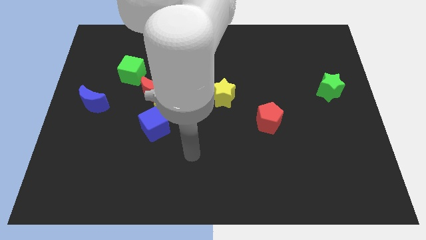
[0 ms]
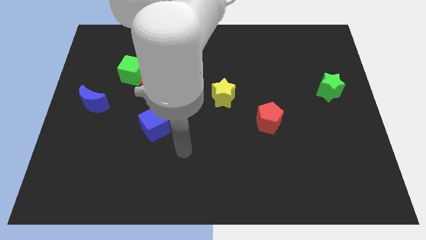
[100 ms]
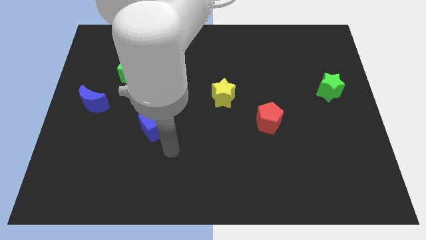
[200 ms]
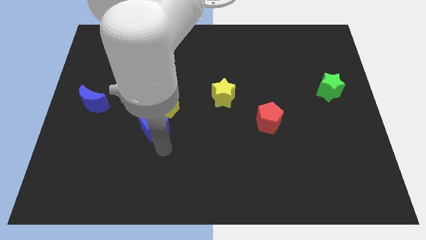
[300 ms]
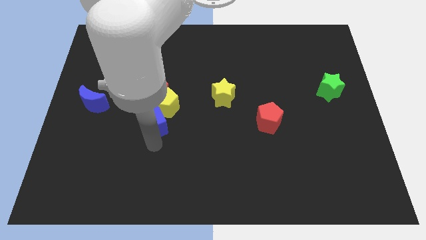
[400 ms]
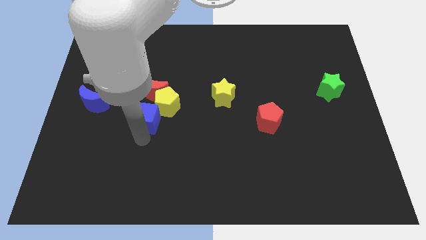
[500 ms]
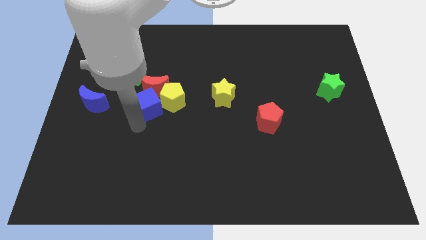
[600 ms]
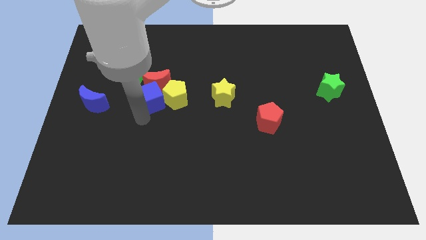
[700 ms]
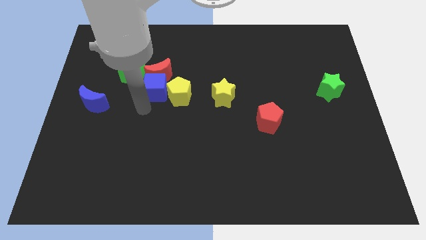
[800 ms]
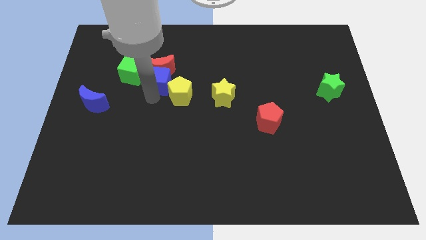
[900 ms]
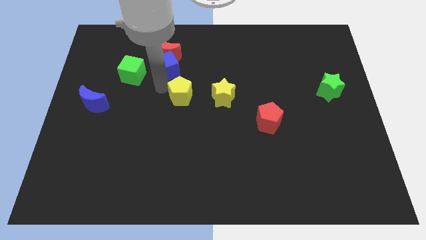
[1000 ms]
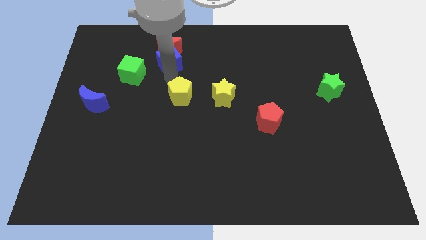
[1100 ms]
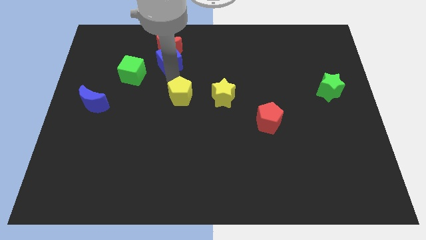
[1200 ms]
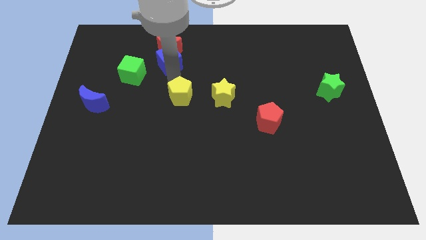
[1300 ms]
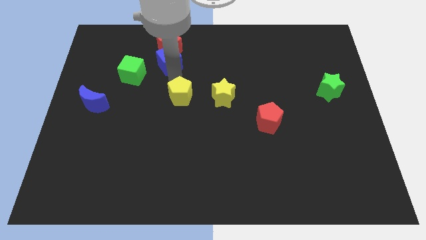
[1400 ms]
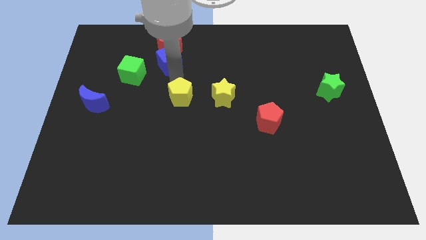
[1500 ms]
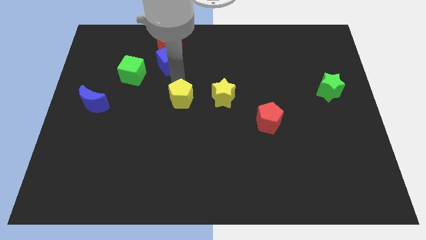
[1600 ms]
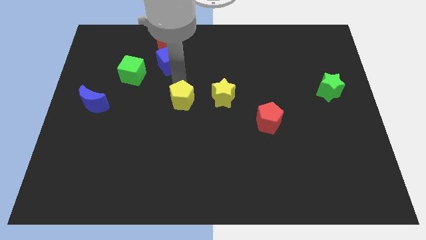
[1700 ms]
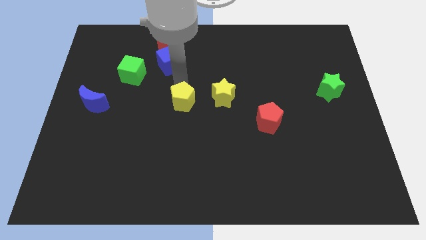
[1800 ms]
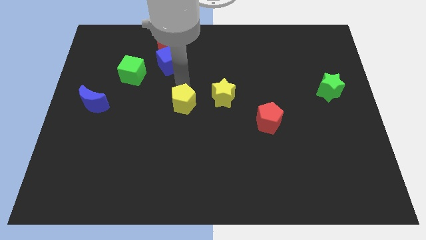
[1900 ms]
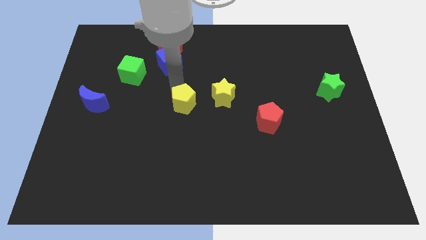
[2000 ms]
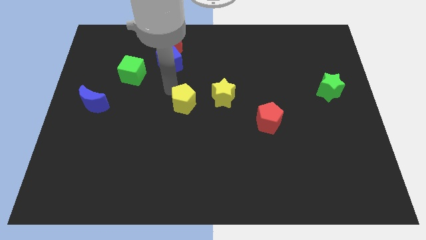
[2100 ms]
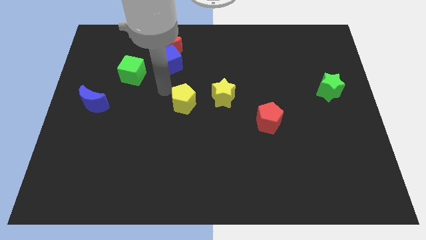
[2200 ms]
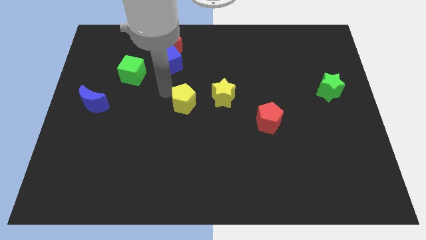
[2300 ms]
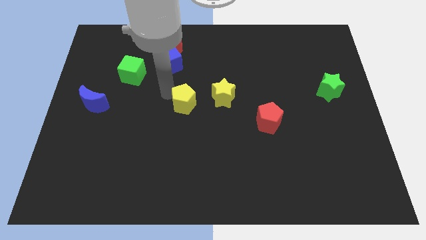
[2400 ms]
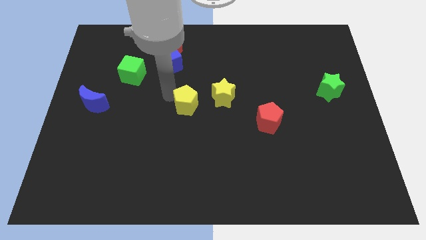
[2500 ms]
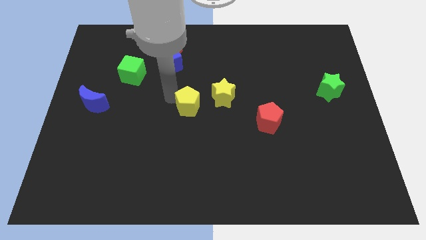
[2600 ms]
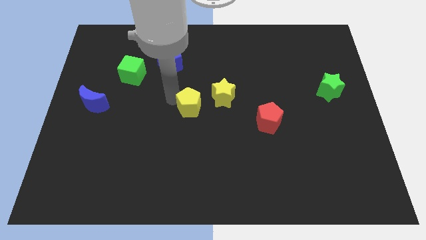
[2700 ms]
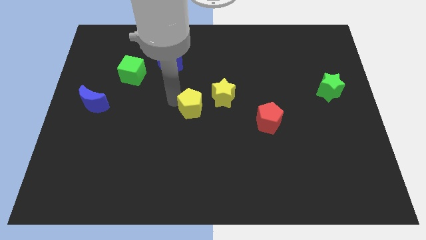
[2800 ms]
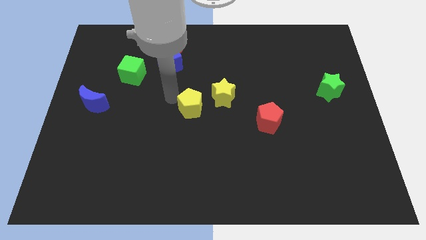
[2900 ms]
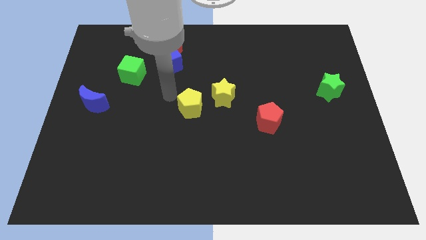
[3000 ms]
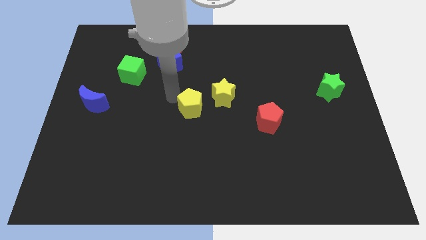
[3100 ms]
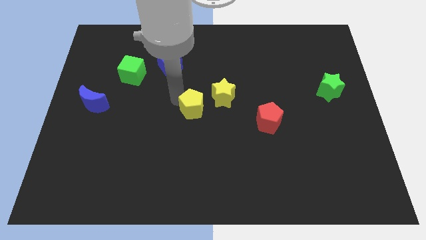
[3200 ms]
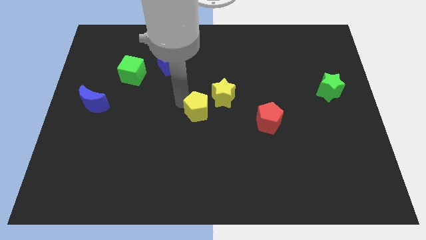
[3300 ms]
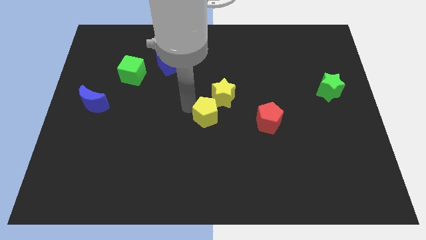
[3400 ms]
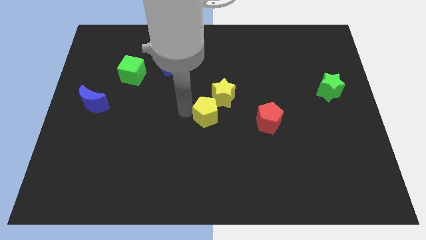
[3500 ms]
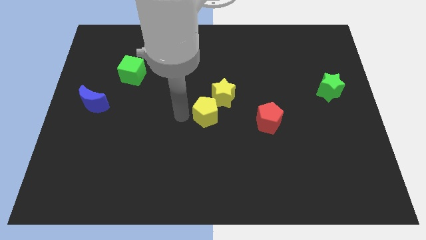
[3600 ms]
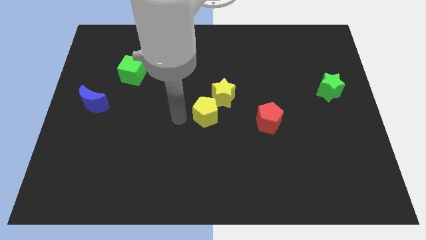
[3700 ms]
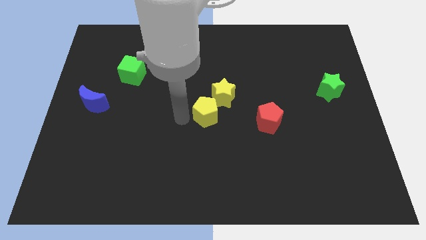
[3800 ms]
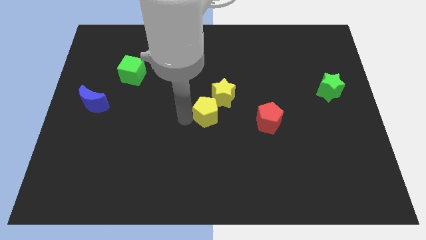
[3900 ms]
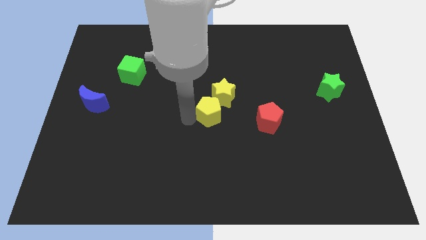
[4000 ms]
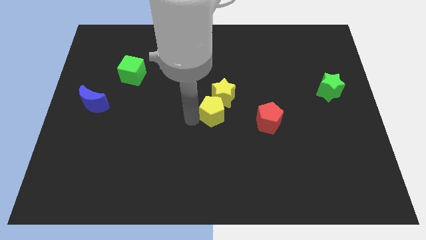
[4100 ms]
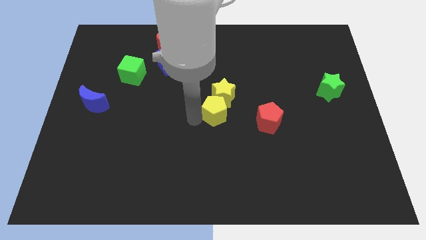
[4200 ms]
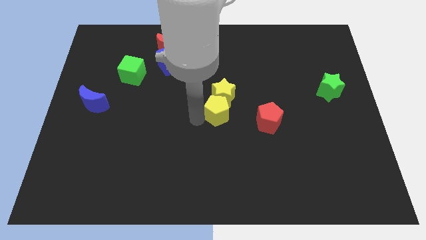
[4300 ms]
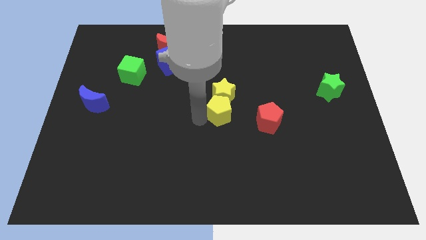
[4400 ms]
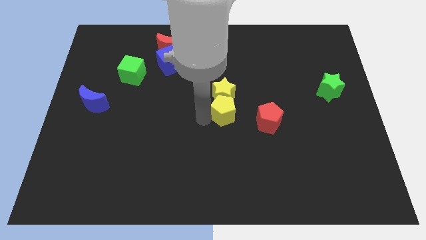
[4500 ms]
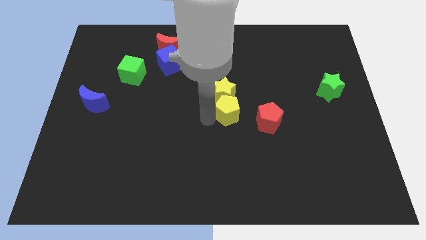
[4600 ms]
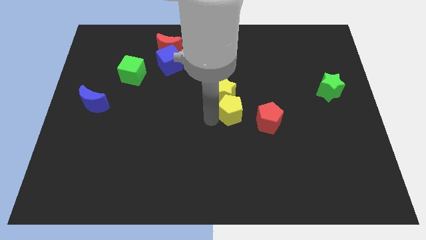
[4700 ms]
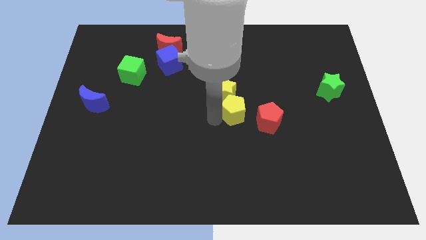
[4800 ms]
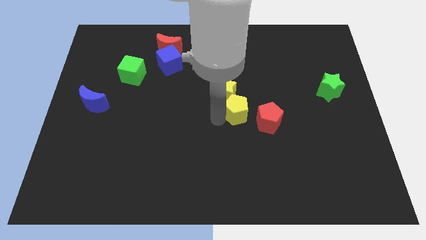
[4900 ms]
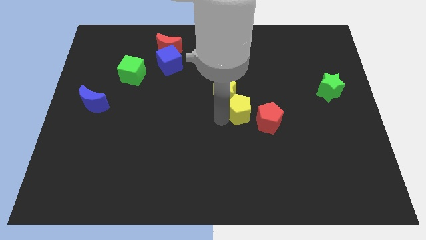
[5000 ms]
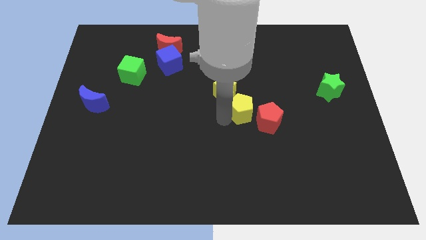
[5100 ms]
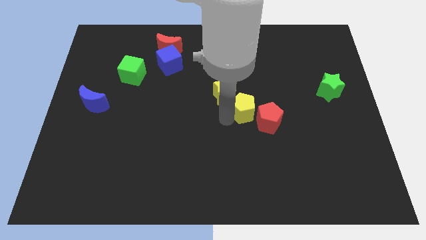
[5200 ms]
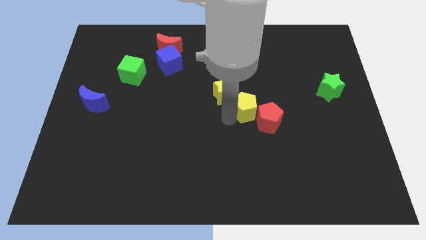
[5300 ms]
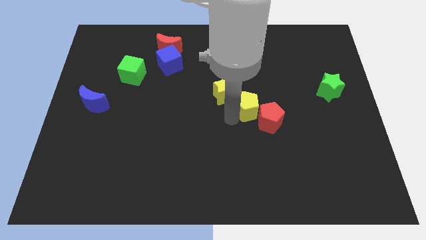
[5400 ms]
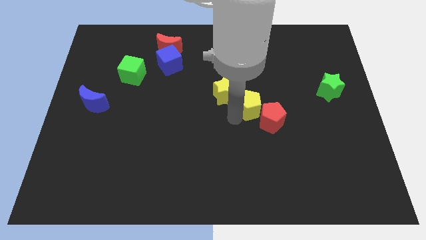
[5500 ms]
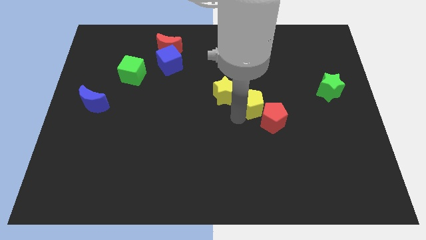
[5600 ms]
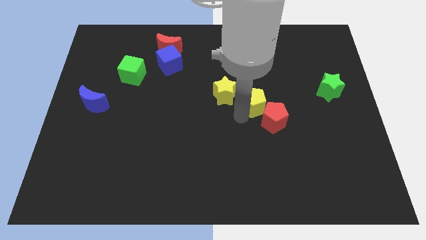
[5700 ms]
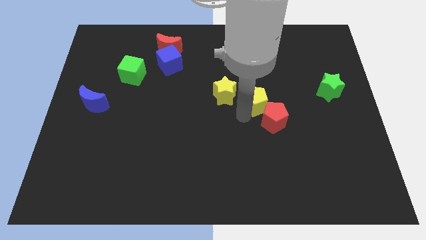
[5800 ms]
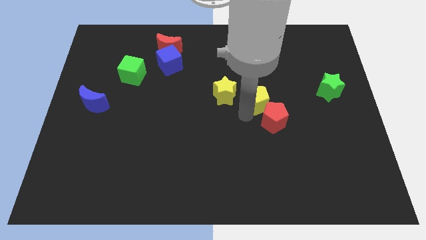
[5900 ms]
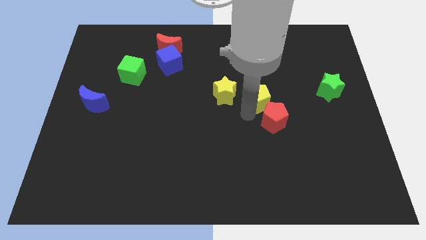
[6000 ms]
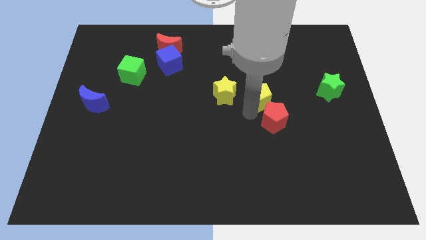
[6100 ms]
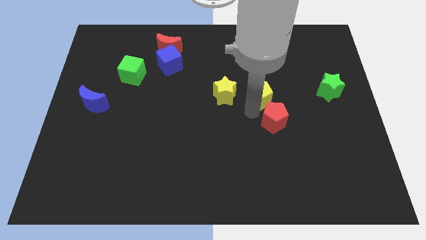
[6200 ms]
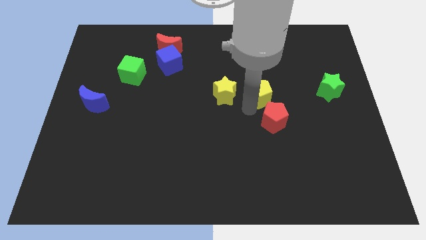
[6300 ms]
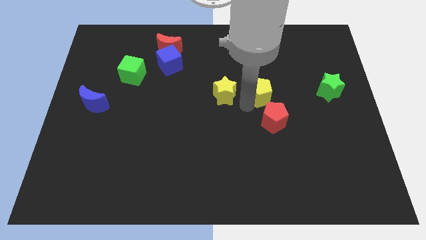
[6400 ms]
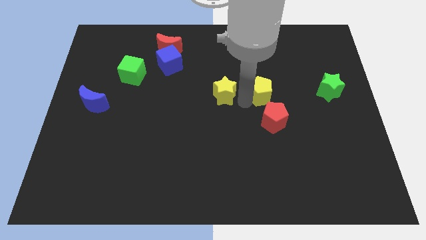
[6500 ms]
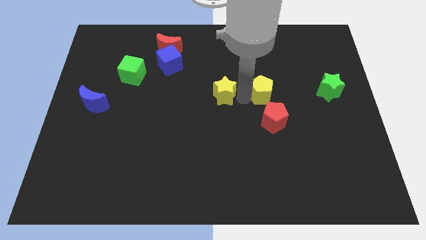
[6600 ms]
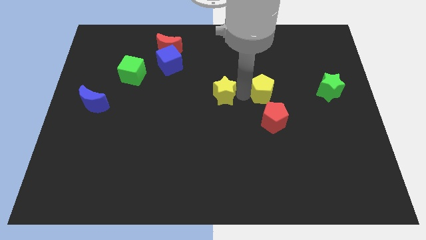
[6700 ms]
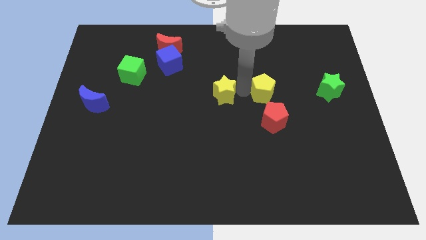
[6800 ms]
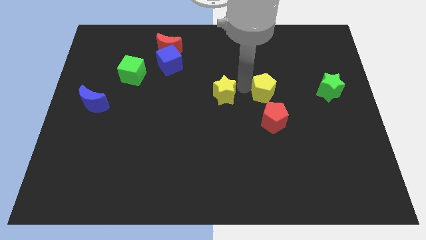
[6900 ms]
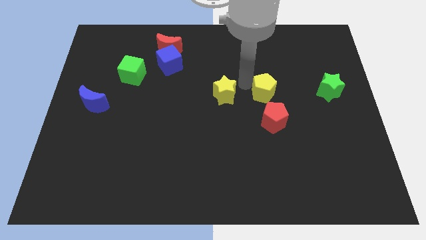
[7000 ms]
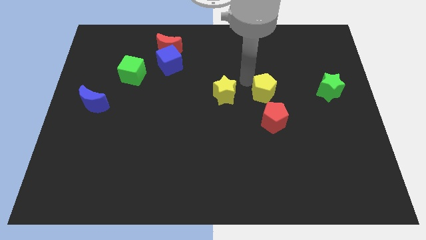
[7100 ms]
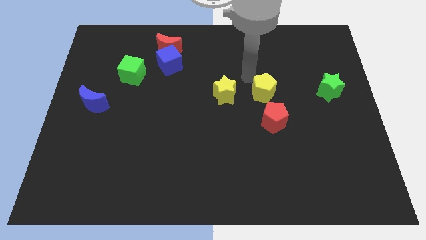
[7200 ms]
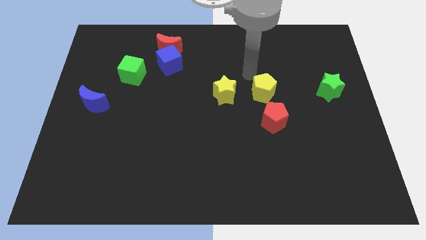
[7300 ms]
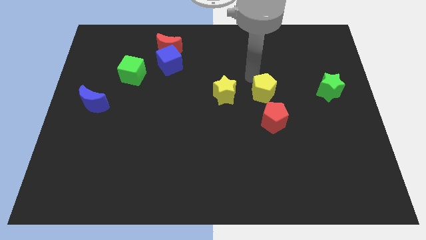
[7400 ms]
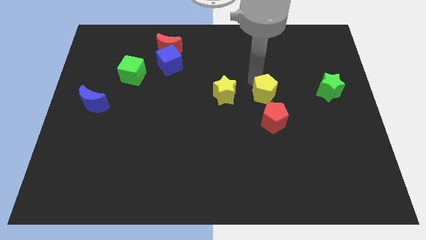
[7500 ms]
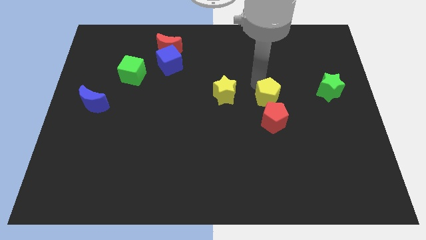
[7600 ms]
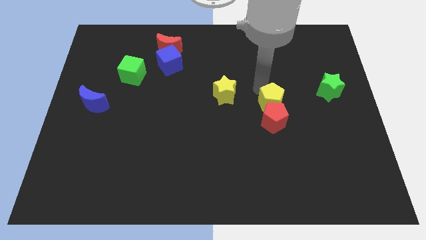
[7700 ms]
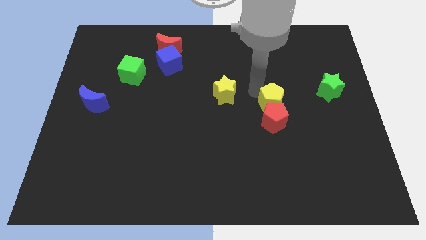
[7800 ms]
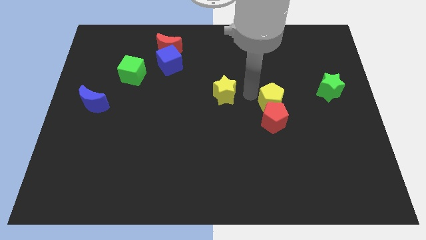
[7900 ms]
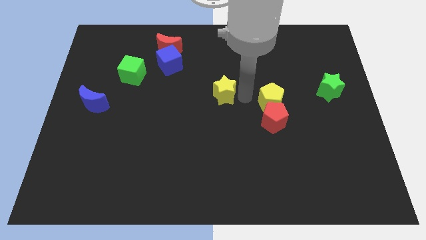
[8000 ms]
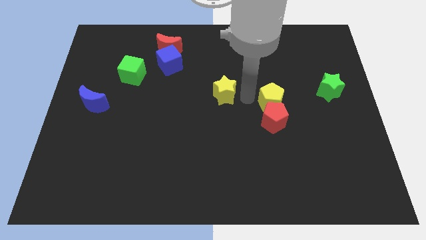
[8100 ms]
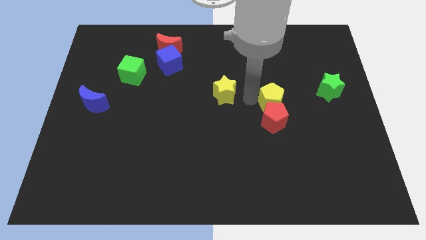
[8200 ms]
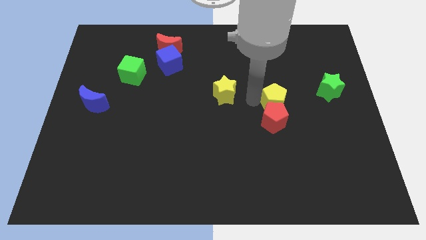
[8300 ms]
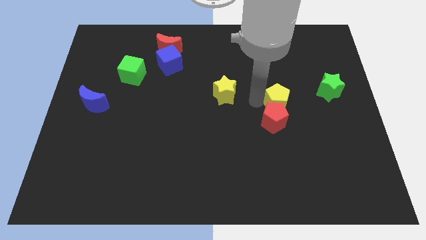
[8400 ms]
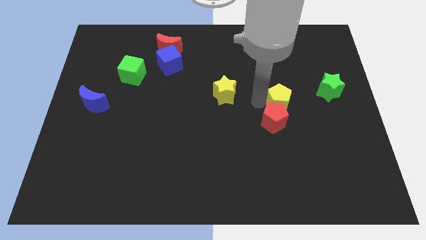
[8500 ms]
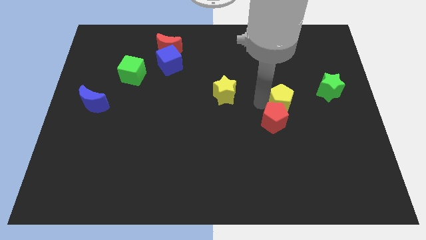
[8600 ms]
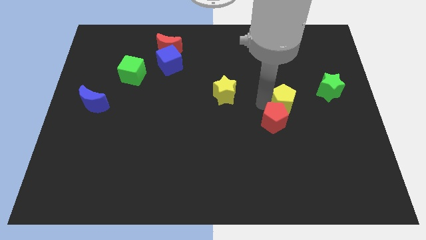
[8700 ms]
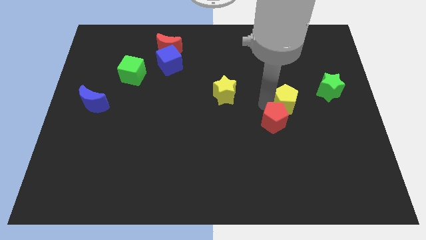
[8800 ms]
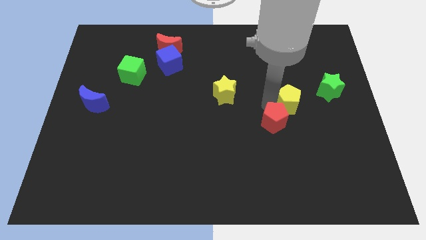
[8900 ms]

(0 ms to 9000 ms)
put the yellow pentagon to the bottom left of the green star
